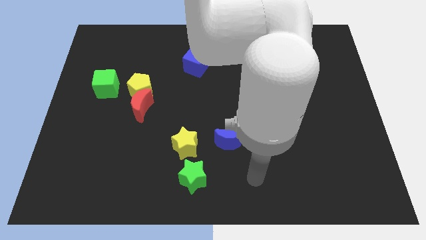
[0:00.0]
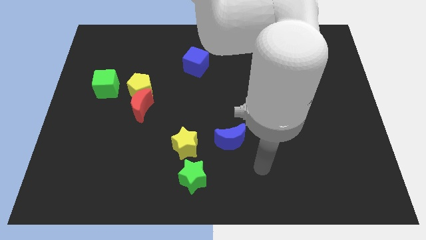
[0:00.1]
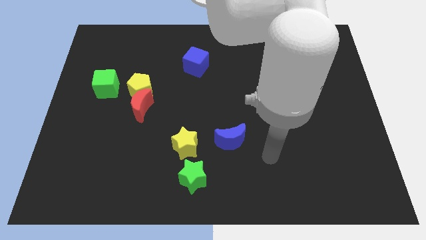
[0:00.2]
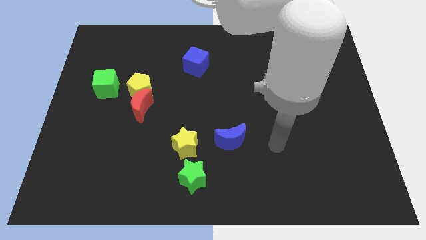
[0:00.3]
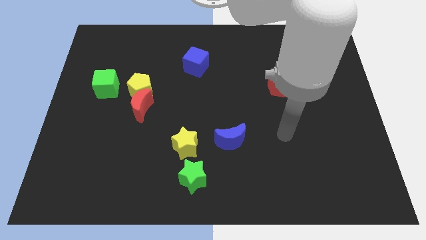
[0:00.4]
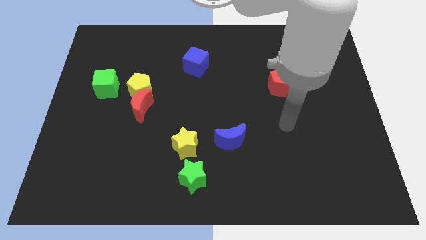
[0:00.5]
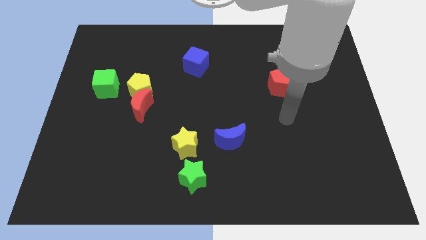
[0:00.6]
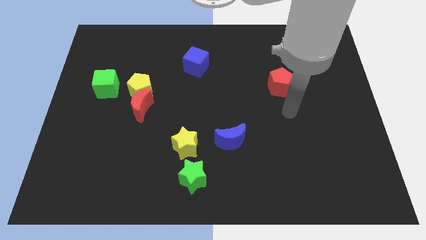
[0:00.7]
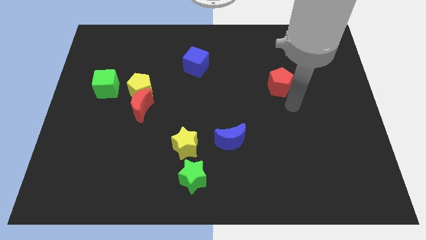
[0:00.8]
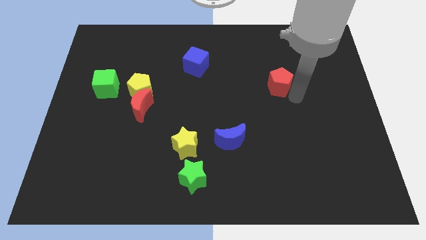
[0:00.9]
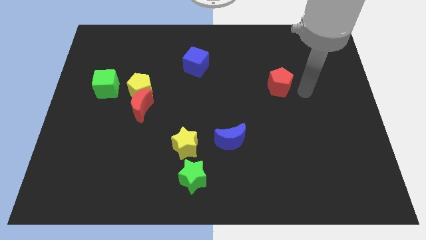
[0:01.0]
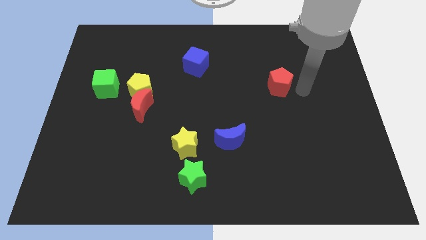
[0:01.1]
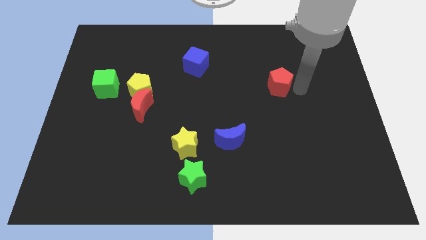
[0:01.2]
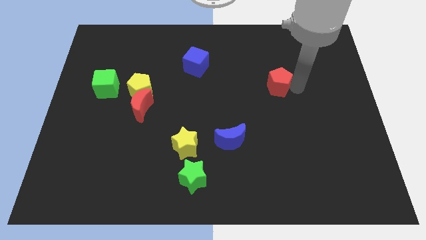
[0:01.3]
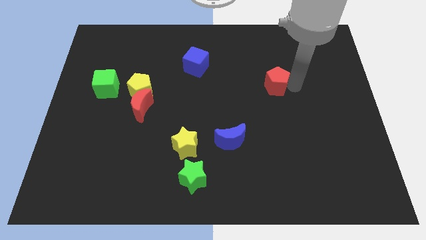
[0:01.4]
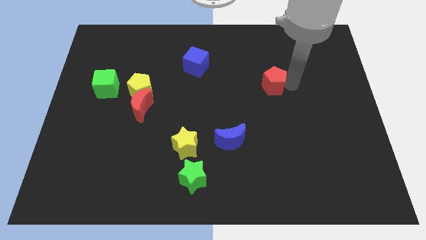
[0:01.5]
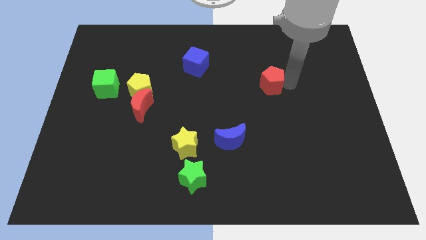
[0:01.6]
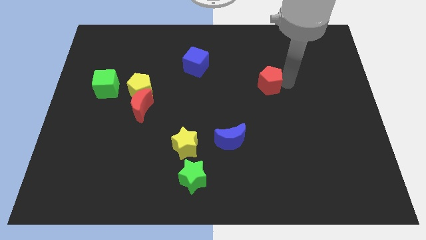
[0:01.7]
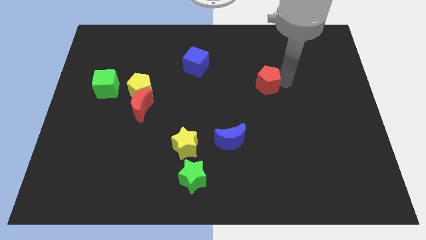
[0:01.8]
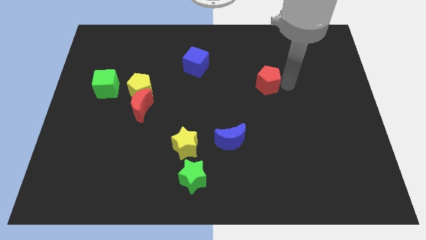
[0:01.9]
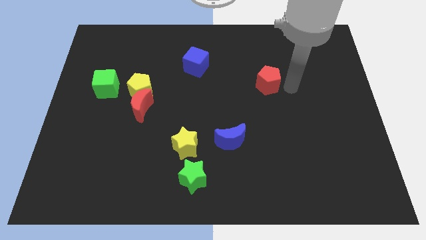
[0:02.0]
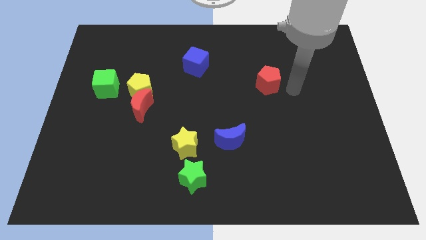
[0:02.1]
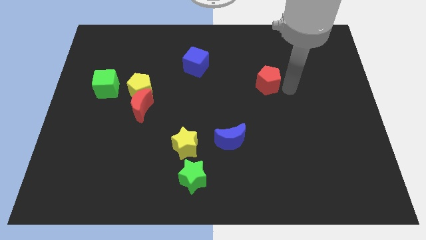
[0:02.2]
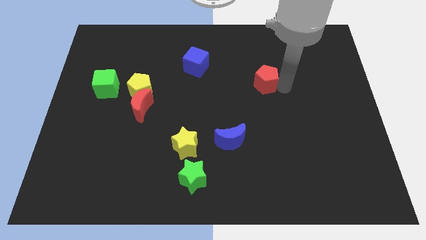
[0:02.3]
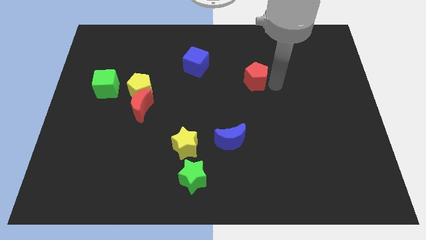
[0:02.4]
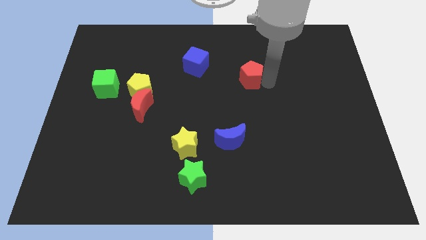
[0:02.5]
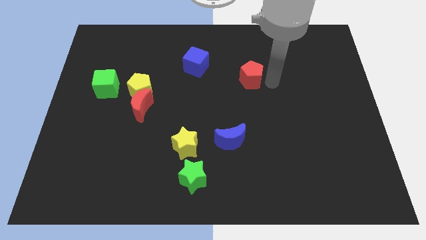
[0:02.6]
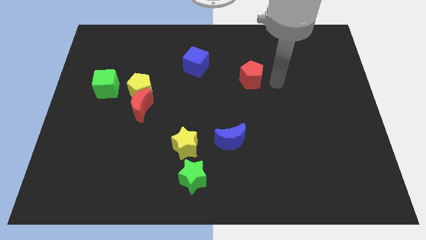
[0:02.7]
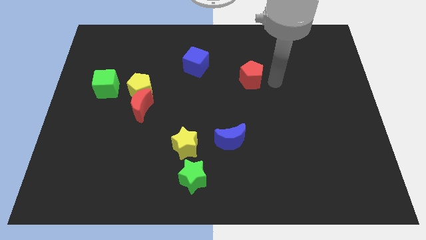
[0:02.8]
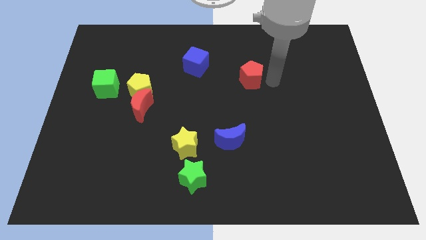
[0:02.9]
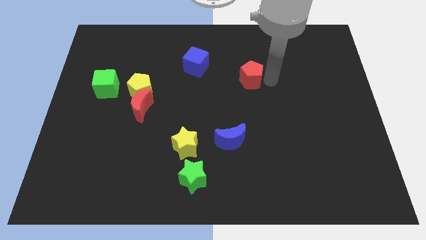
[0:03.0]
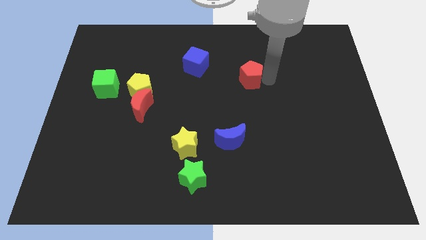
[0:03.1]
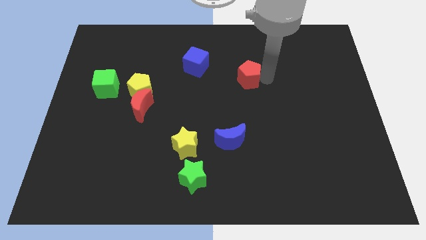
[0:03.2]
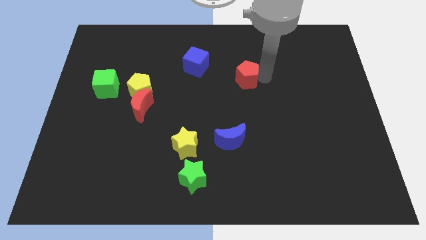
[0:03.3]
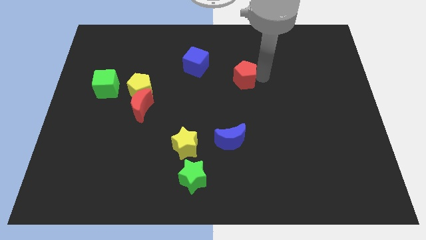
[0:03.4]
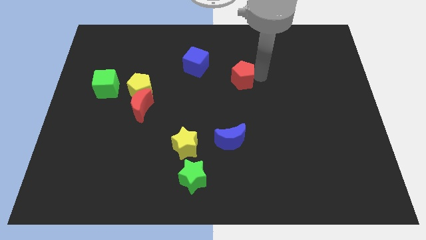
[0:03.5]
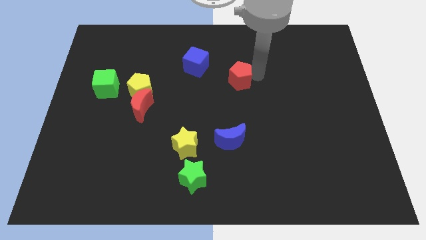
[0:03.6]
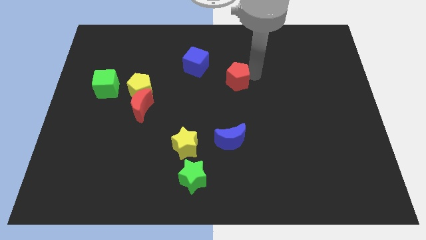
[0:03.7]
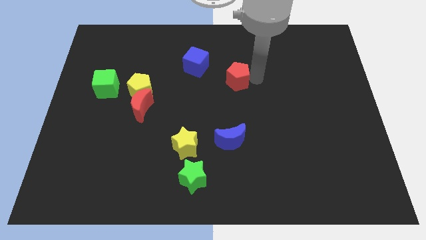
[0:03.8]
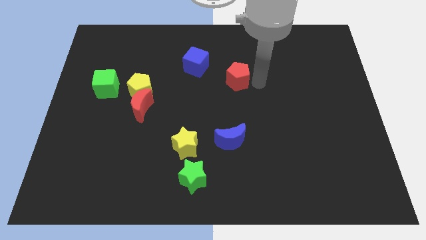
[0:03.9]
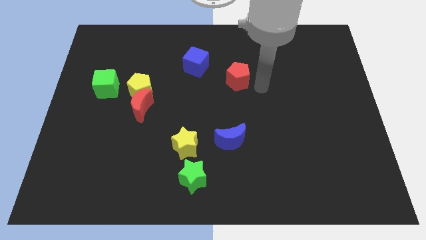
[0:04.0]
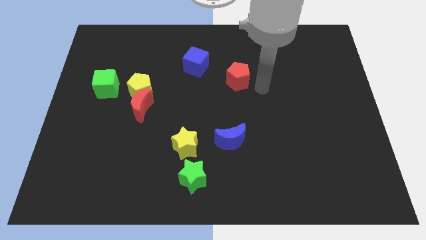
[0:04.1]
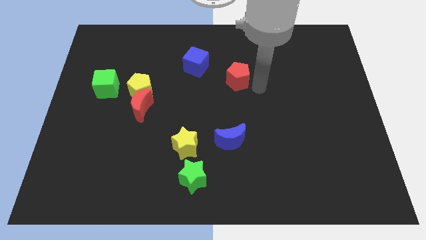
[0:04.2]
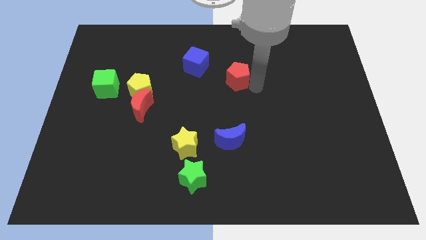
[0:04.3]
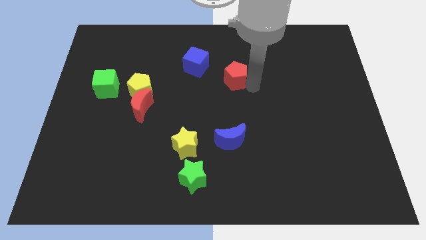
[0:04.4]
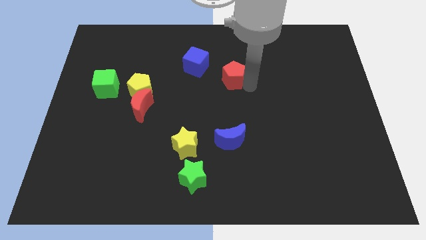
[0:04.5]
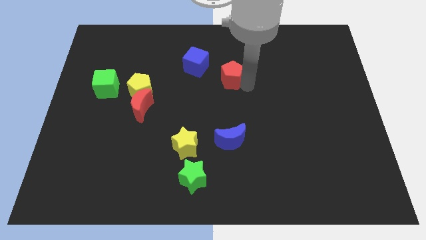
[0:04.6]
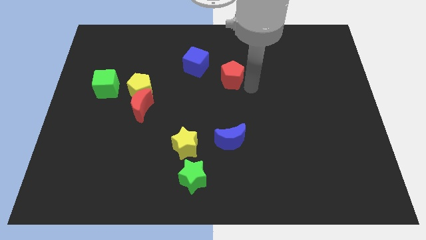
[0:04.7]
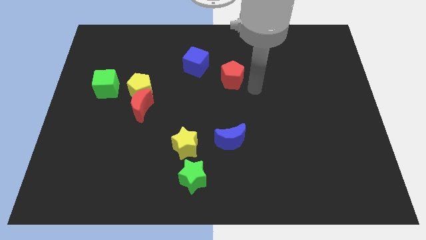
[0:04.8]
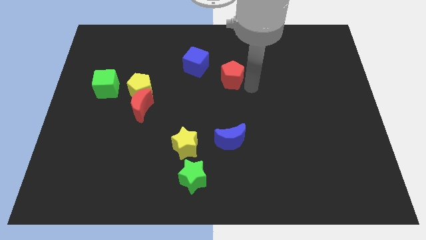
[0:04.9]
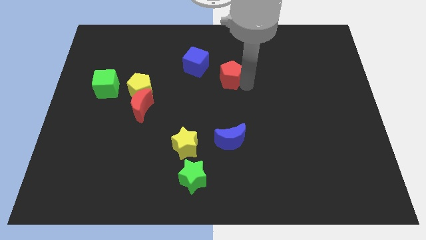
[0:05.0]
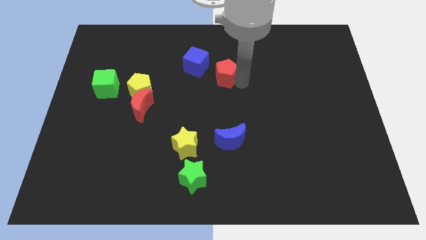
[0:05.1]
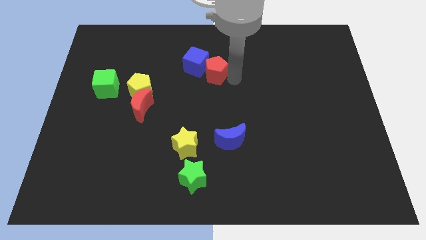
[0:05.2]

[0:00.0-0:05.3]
put the red pentagon close to the blue cube
